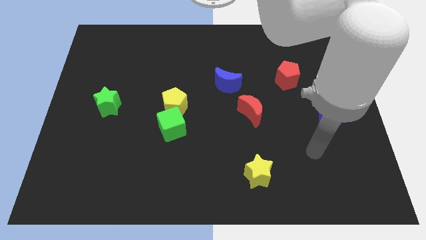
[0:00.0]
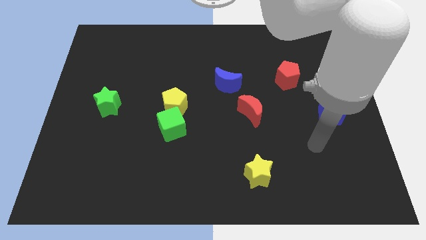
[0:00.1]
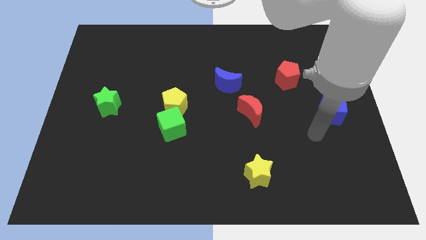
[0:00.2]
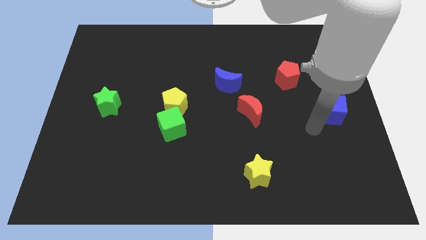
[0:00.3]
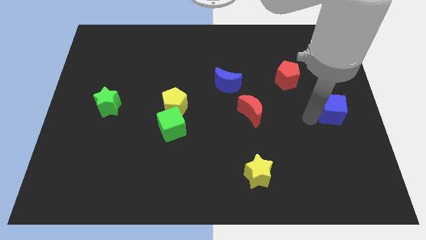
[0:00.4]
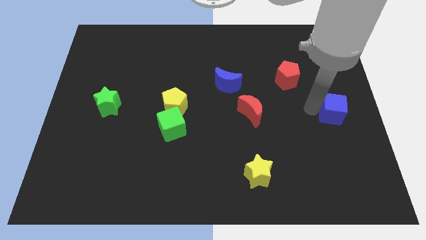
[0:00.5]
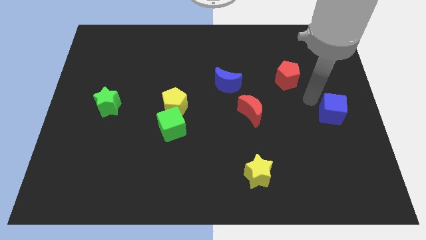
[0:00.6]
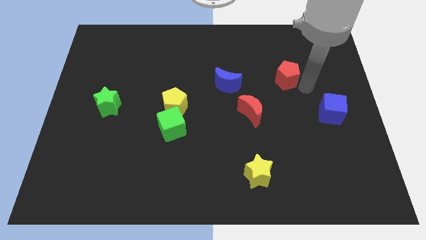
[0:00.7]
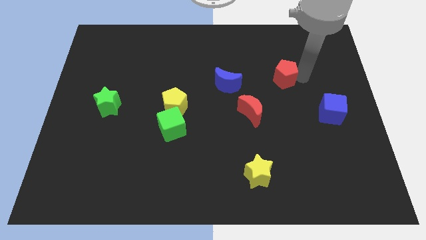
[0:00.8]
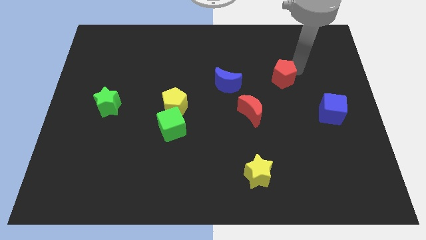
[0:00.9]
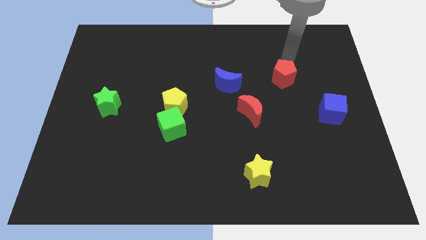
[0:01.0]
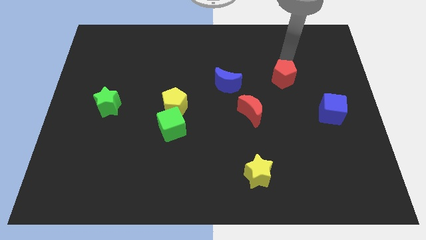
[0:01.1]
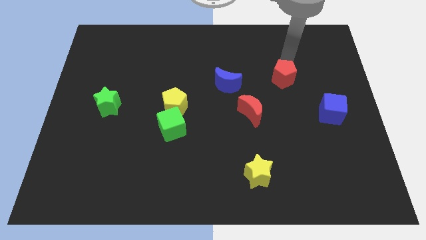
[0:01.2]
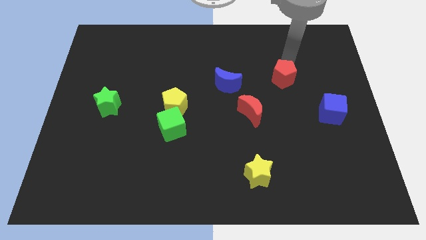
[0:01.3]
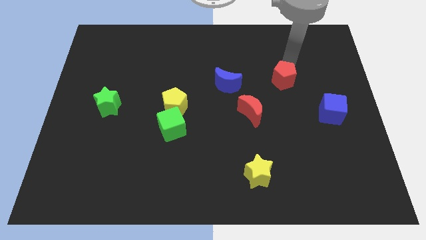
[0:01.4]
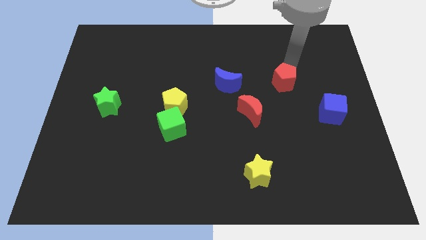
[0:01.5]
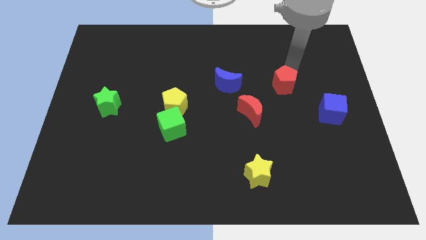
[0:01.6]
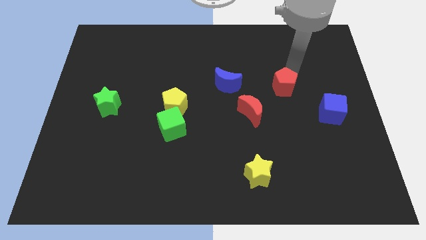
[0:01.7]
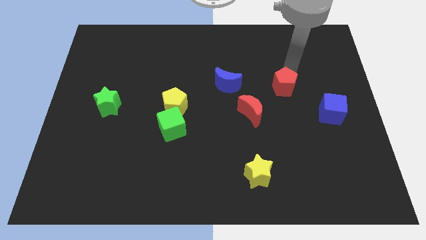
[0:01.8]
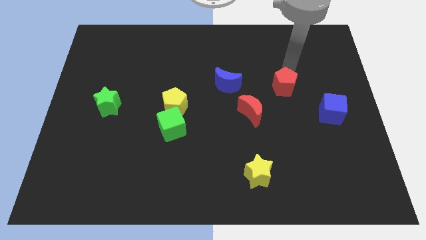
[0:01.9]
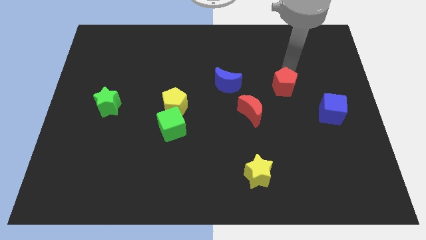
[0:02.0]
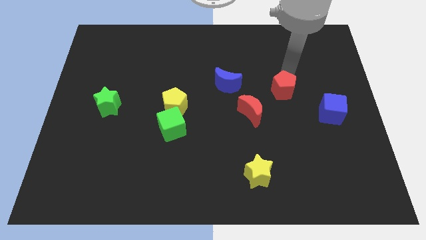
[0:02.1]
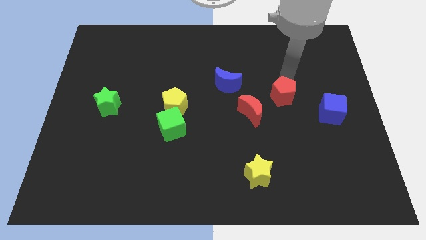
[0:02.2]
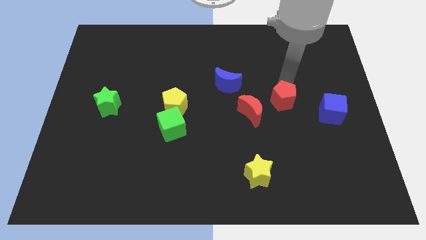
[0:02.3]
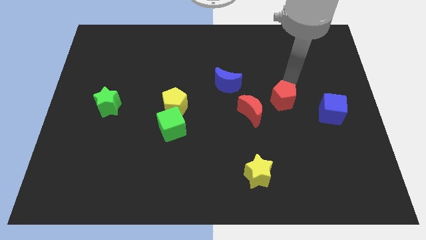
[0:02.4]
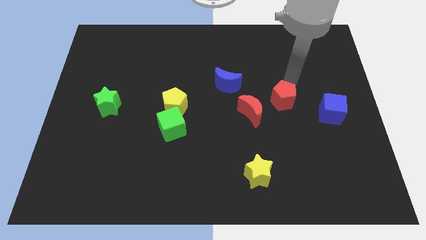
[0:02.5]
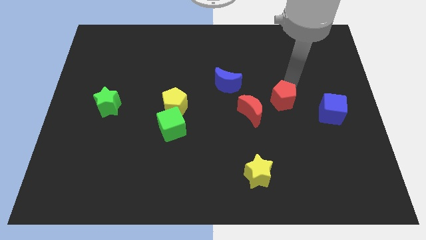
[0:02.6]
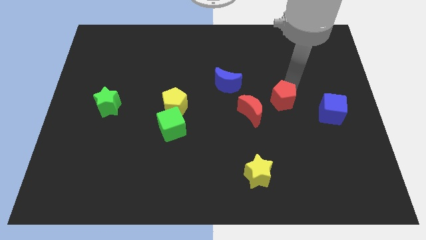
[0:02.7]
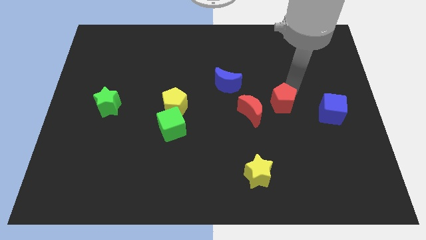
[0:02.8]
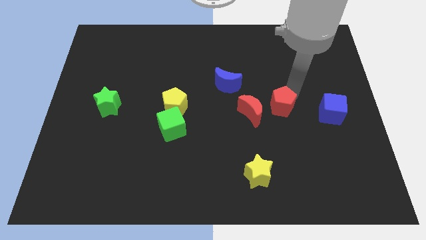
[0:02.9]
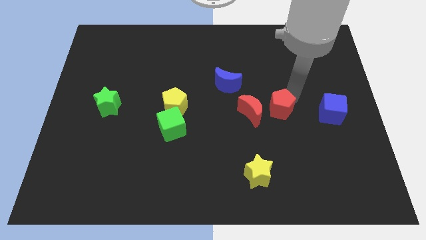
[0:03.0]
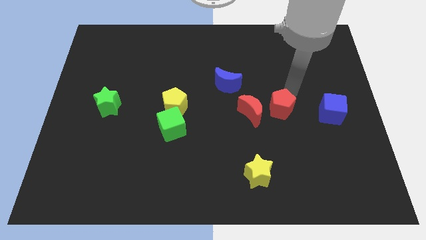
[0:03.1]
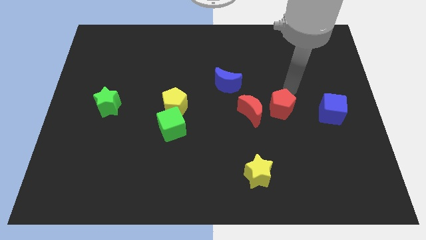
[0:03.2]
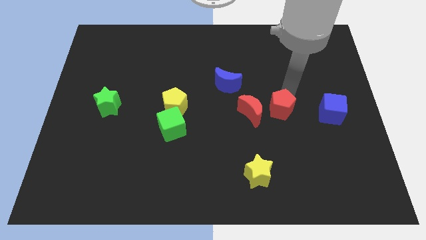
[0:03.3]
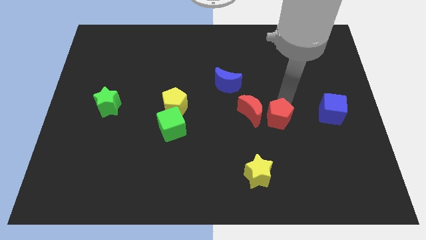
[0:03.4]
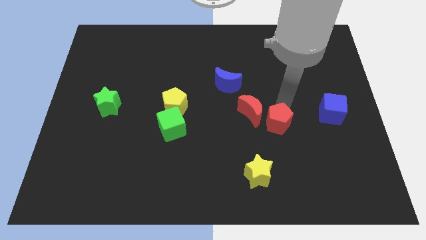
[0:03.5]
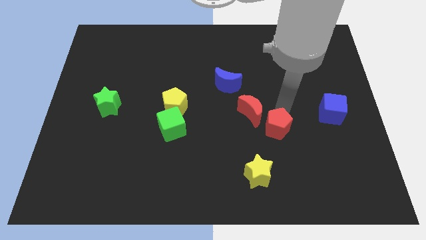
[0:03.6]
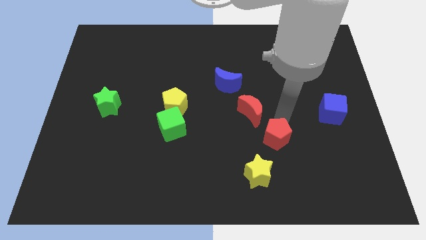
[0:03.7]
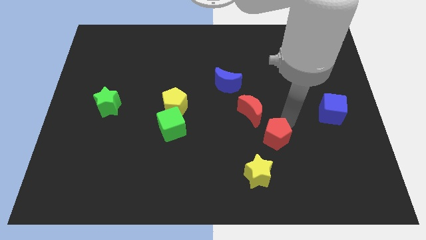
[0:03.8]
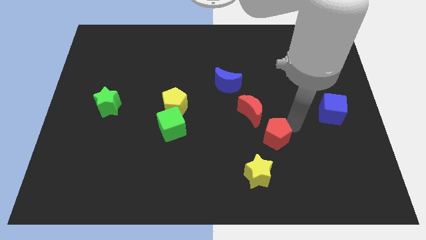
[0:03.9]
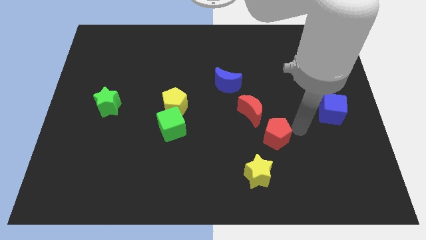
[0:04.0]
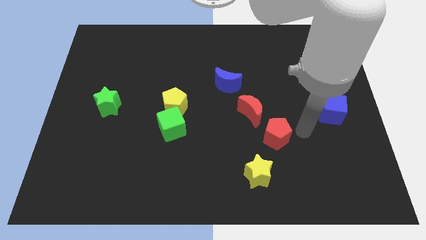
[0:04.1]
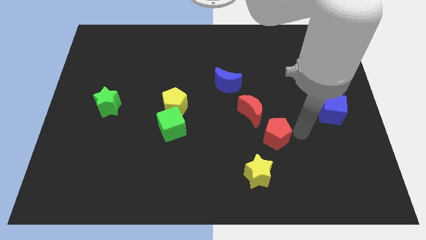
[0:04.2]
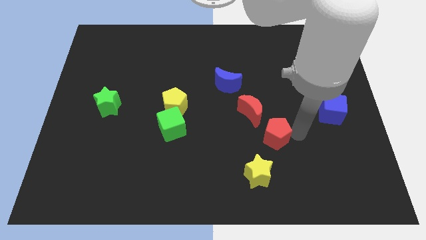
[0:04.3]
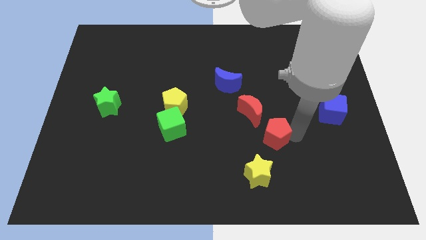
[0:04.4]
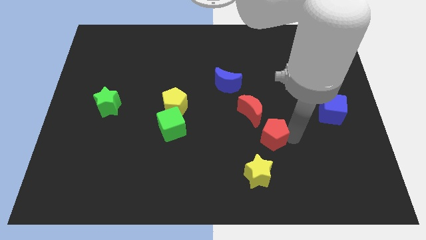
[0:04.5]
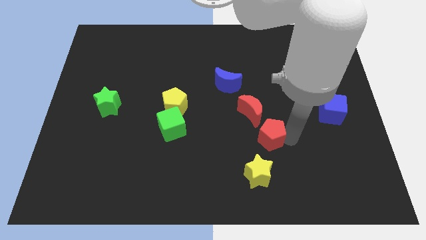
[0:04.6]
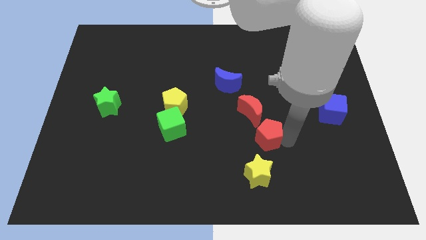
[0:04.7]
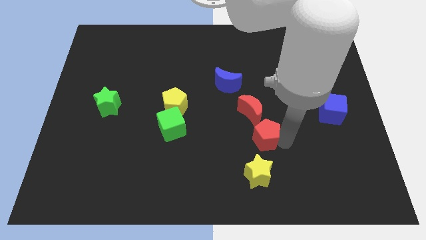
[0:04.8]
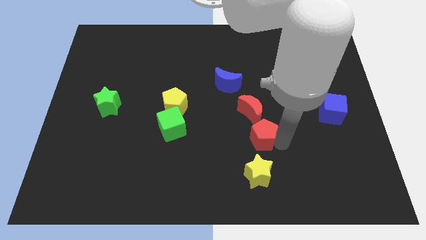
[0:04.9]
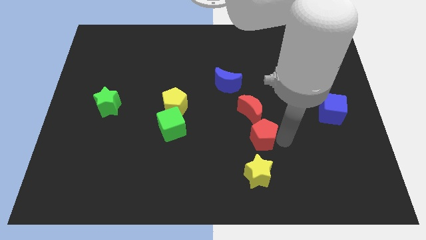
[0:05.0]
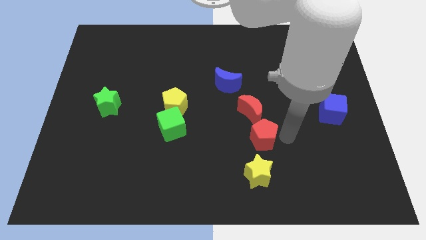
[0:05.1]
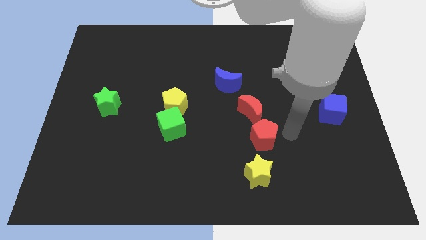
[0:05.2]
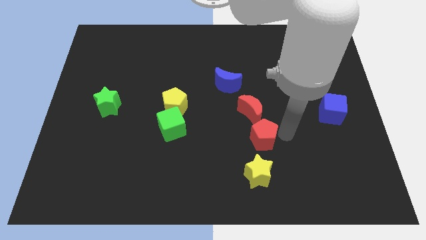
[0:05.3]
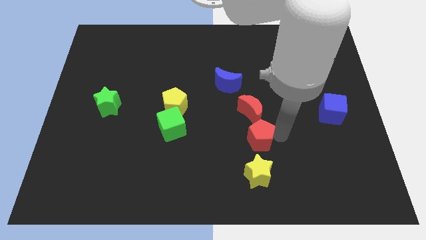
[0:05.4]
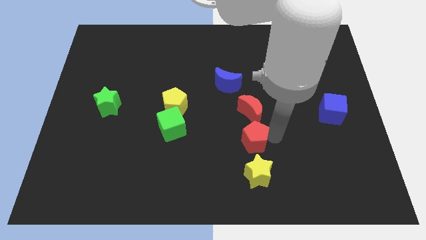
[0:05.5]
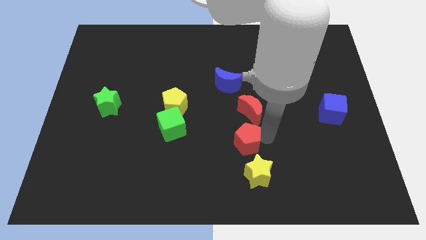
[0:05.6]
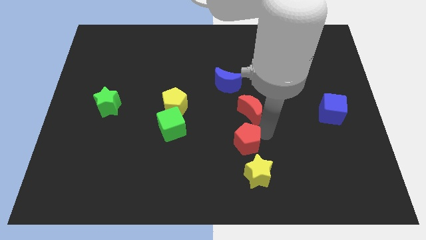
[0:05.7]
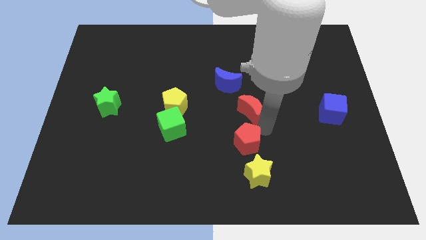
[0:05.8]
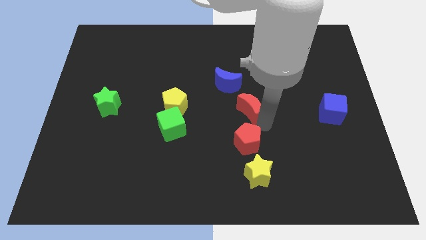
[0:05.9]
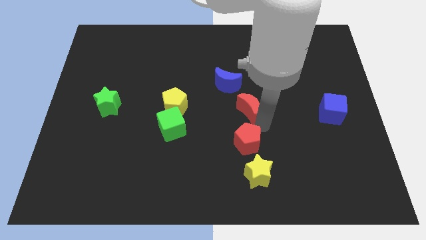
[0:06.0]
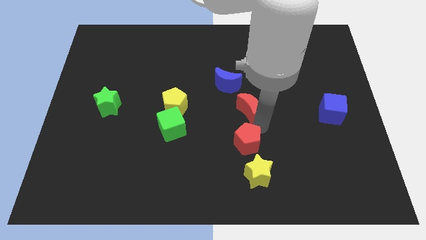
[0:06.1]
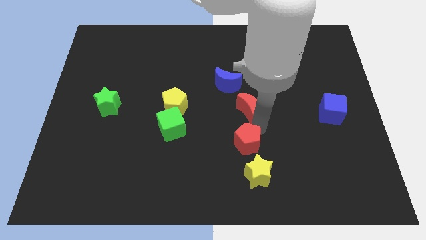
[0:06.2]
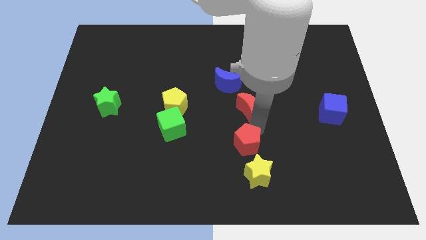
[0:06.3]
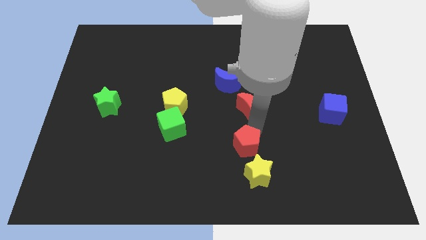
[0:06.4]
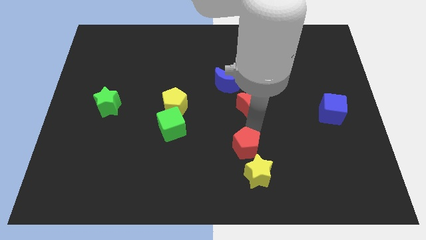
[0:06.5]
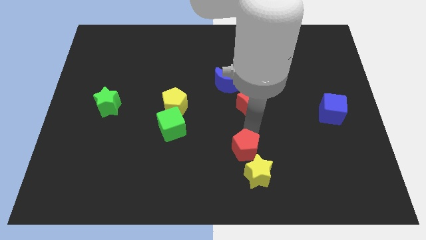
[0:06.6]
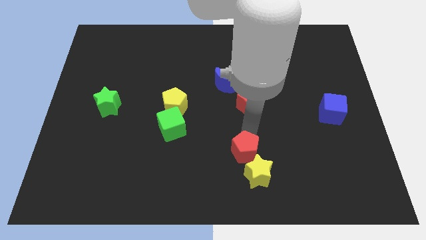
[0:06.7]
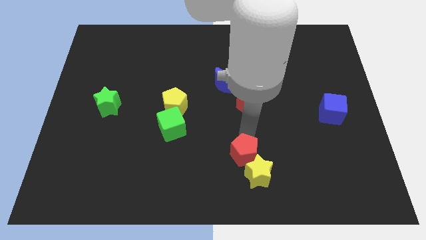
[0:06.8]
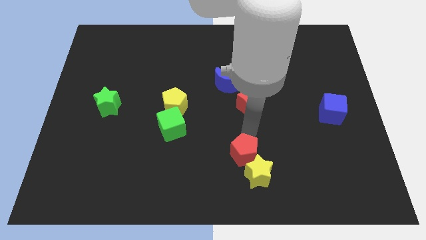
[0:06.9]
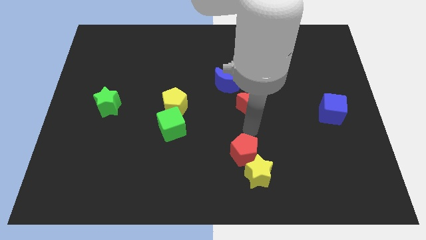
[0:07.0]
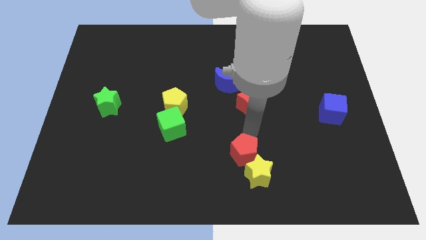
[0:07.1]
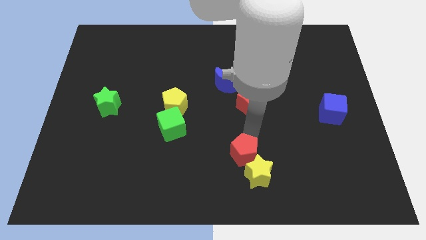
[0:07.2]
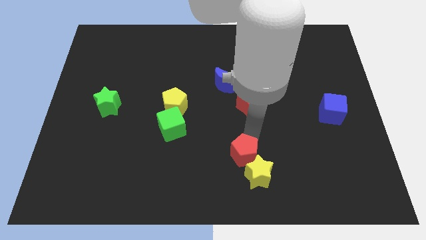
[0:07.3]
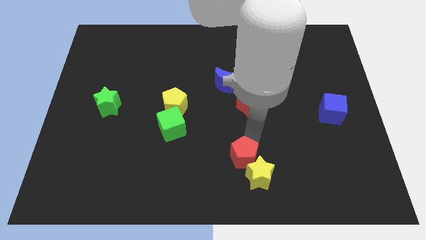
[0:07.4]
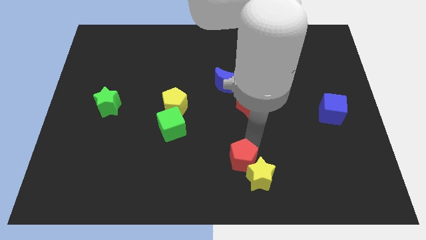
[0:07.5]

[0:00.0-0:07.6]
move the red pentagon to the bottom side
